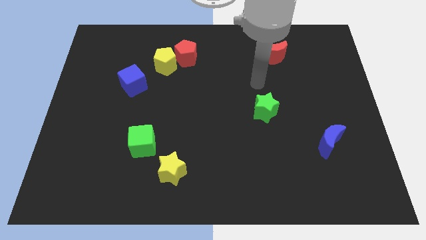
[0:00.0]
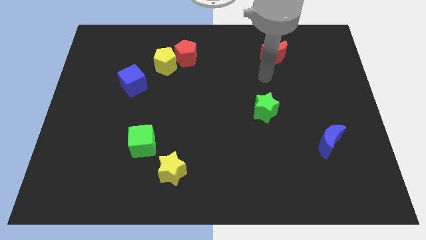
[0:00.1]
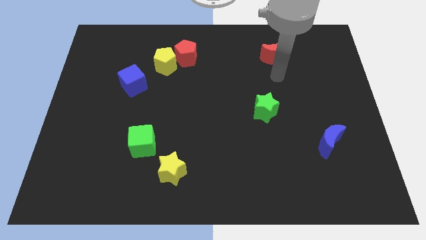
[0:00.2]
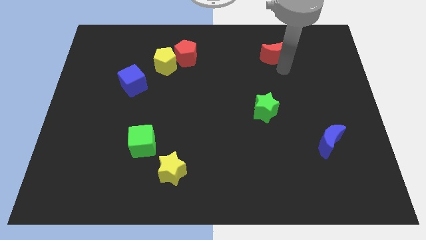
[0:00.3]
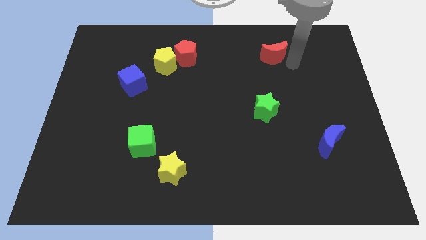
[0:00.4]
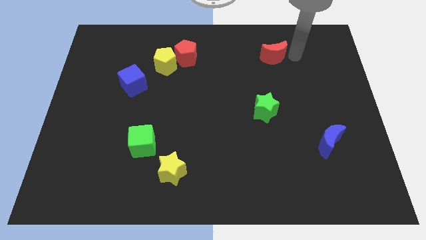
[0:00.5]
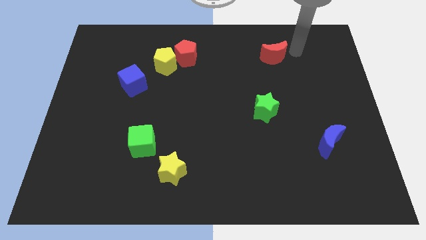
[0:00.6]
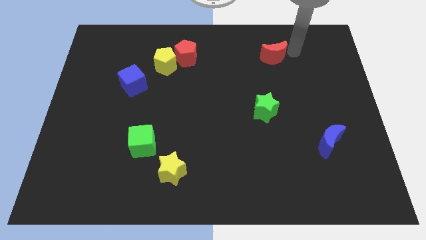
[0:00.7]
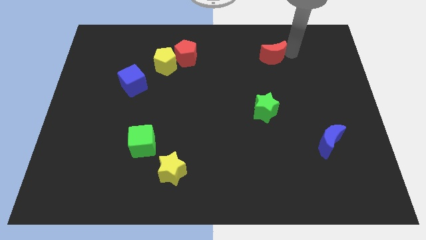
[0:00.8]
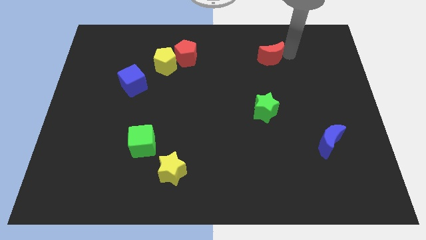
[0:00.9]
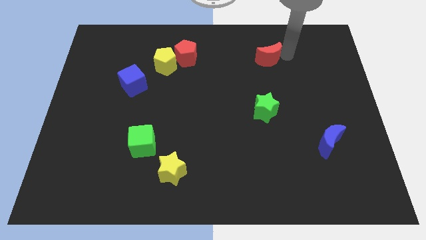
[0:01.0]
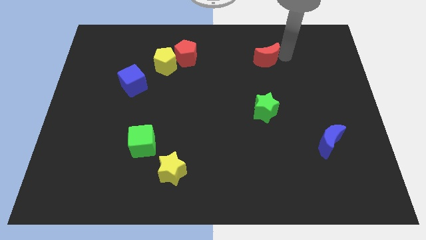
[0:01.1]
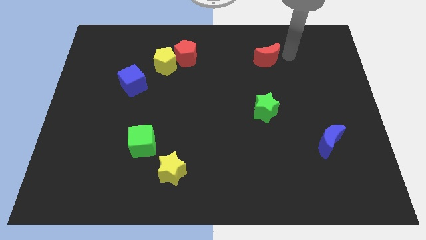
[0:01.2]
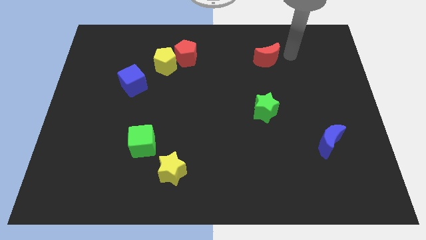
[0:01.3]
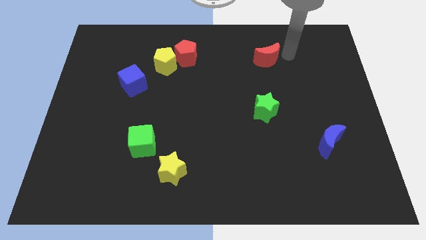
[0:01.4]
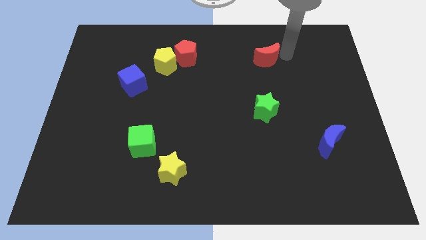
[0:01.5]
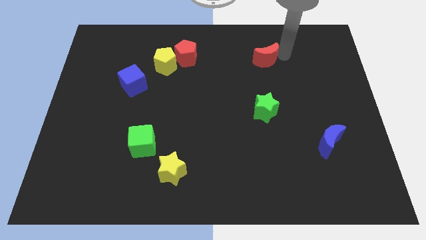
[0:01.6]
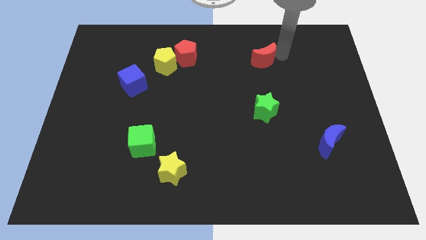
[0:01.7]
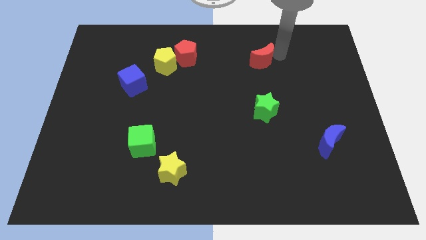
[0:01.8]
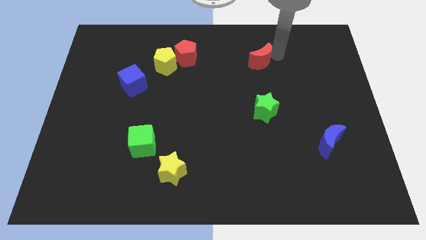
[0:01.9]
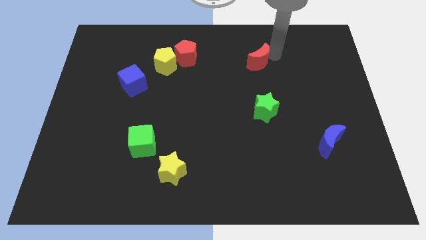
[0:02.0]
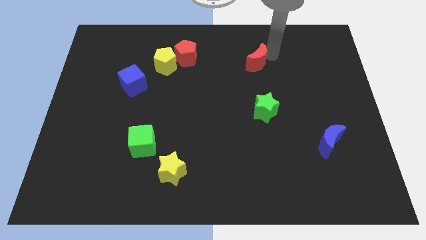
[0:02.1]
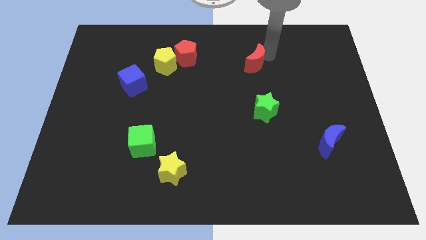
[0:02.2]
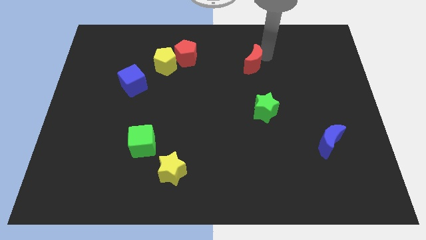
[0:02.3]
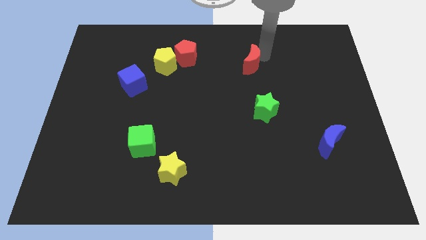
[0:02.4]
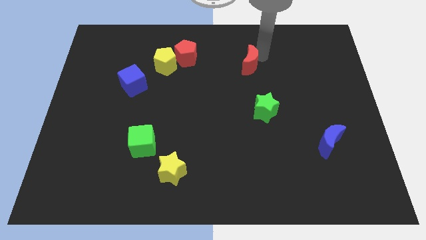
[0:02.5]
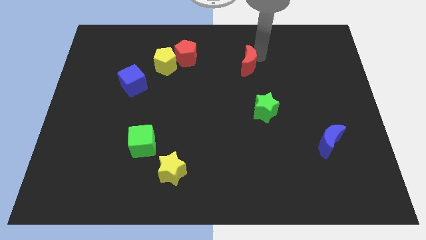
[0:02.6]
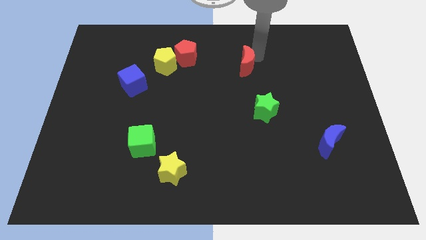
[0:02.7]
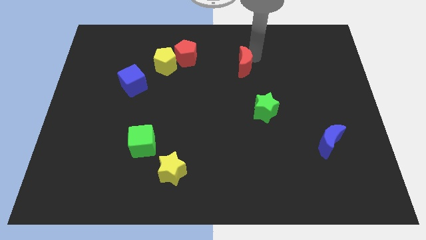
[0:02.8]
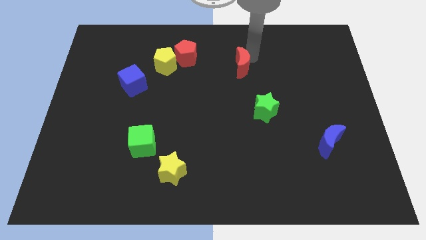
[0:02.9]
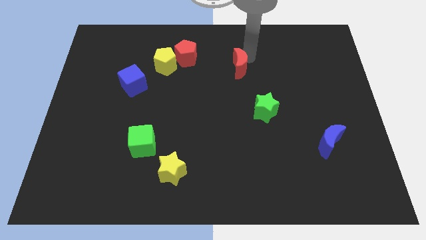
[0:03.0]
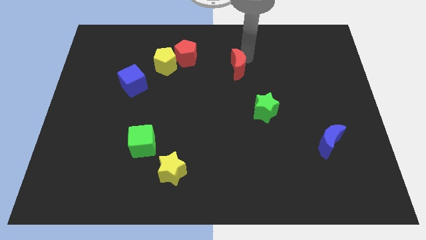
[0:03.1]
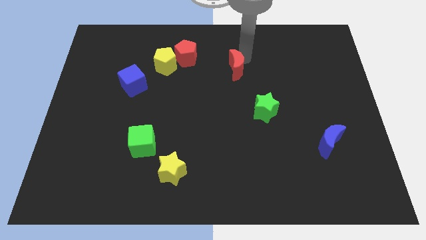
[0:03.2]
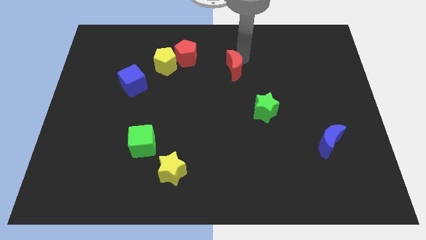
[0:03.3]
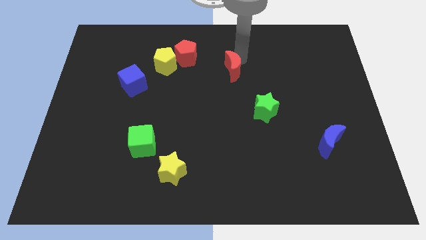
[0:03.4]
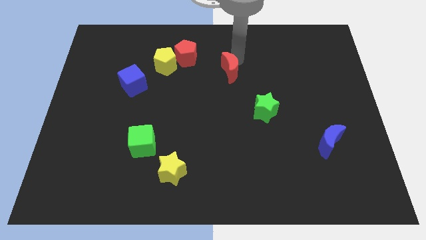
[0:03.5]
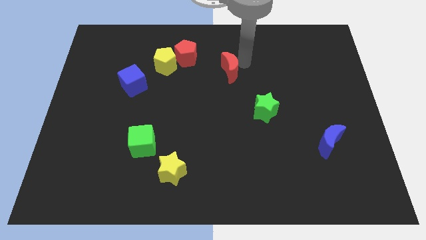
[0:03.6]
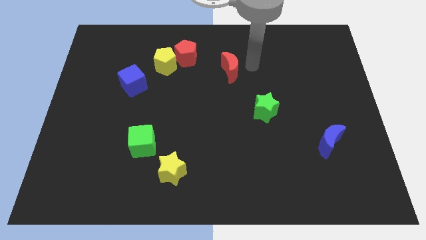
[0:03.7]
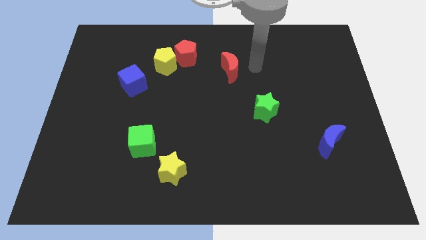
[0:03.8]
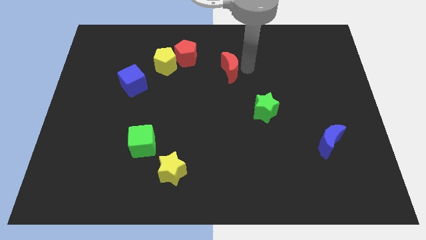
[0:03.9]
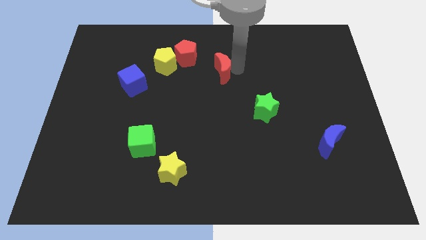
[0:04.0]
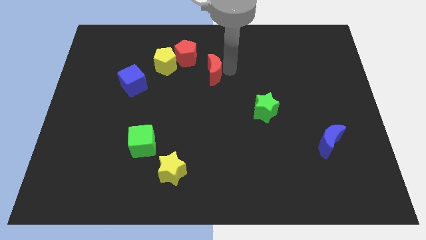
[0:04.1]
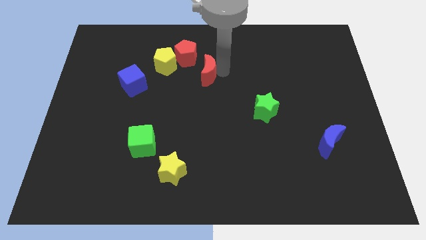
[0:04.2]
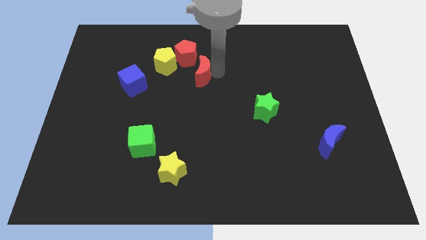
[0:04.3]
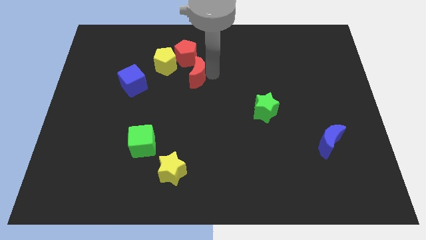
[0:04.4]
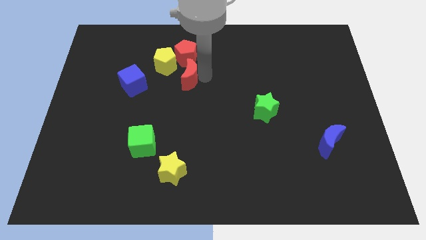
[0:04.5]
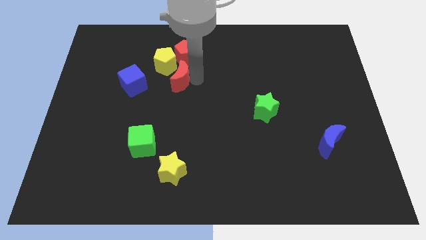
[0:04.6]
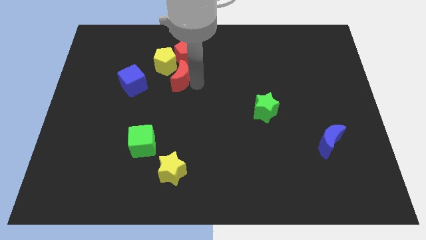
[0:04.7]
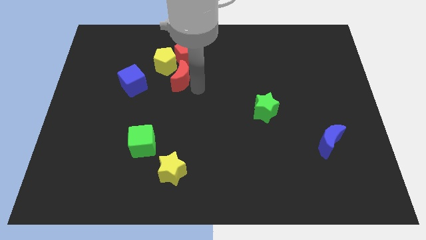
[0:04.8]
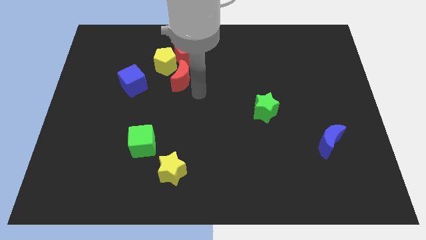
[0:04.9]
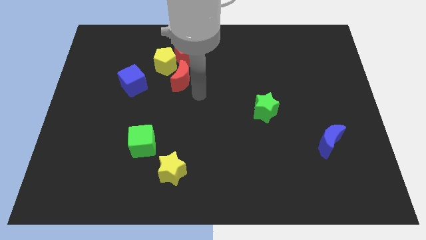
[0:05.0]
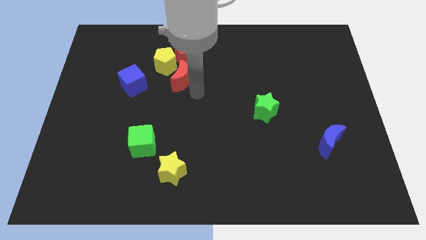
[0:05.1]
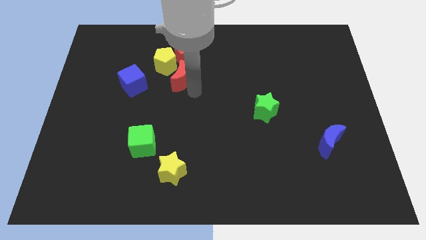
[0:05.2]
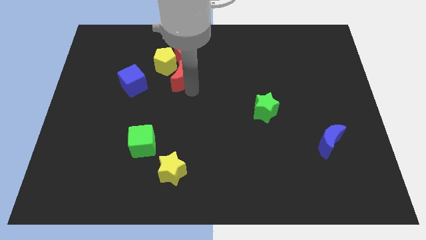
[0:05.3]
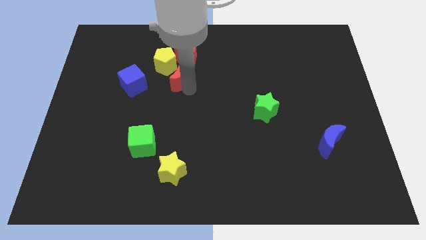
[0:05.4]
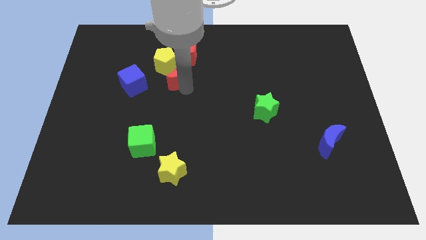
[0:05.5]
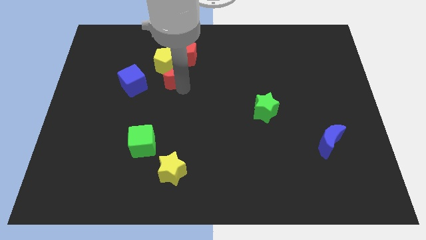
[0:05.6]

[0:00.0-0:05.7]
slide the red moon close to the yellow pentagon

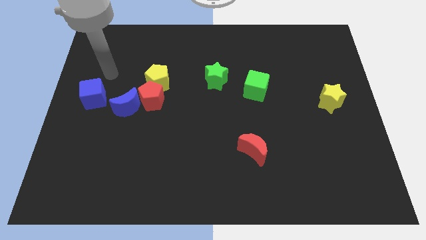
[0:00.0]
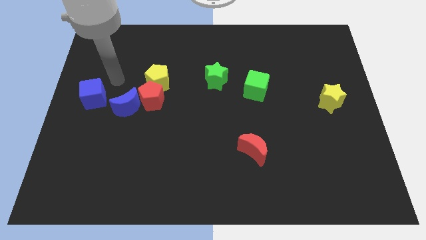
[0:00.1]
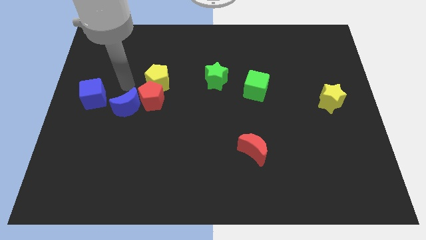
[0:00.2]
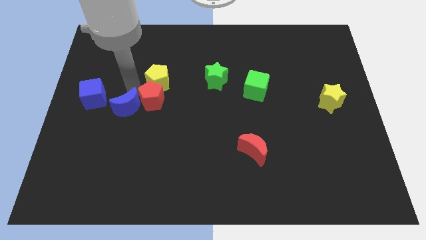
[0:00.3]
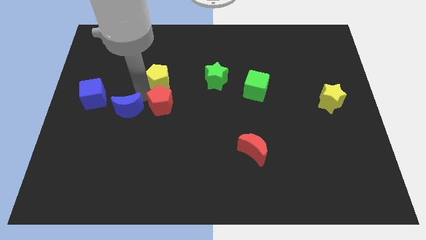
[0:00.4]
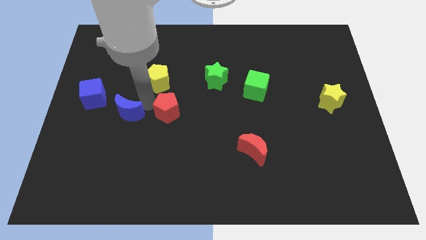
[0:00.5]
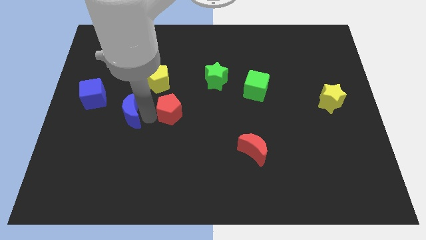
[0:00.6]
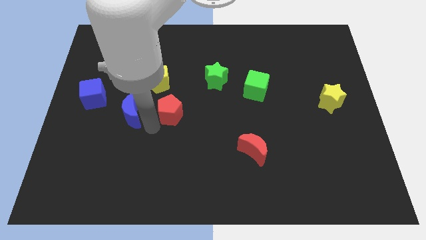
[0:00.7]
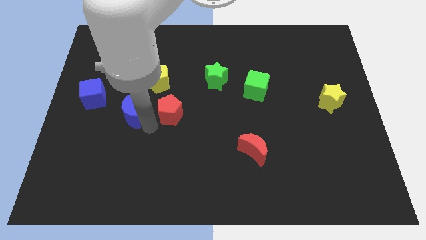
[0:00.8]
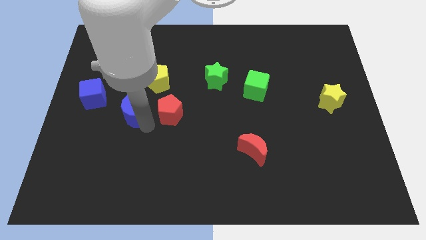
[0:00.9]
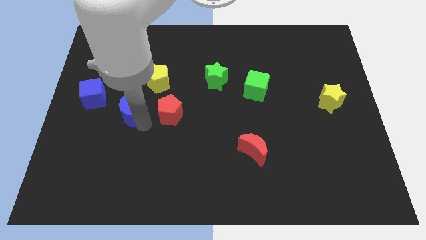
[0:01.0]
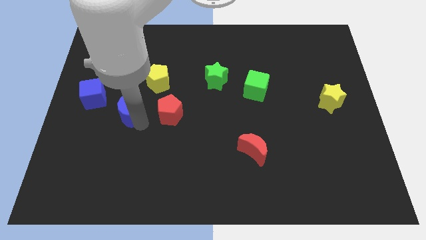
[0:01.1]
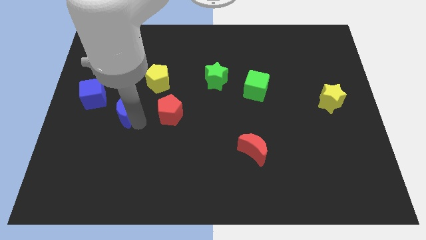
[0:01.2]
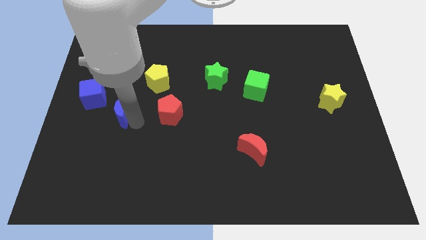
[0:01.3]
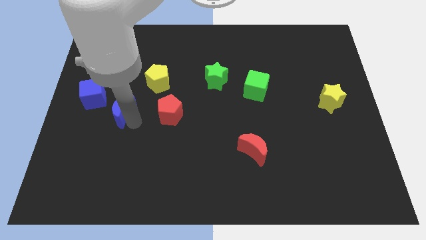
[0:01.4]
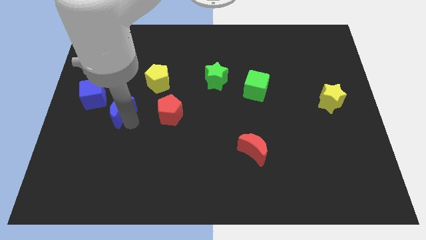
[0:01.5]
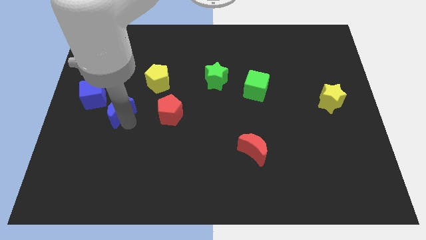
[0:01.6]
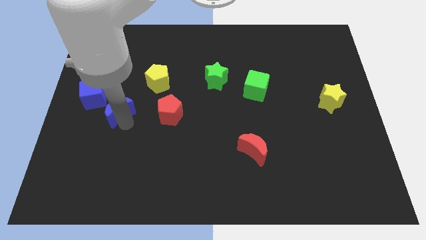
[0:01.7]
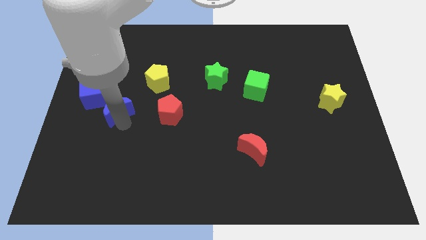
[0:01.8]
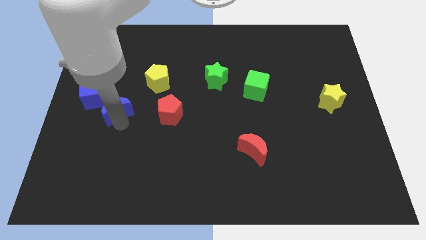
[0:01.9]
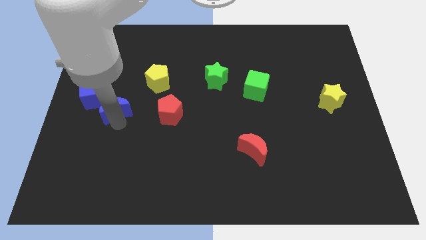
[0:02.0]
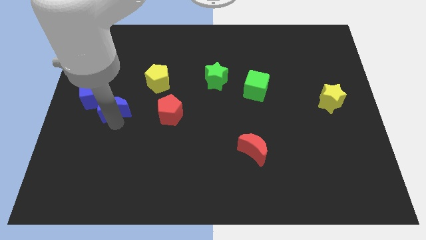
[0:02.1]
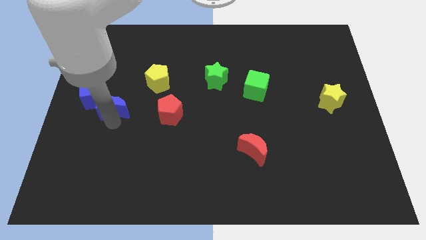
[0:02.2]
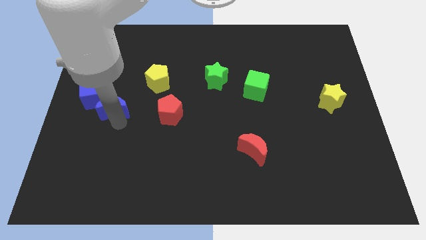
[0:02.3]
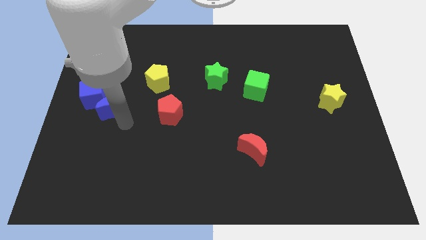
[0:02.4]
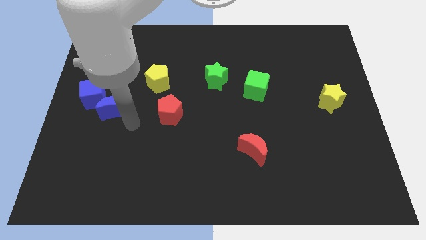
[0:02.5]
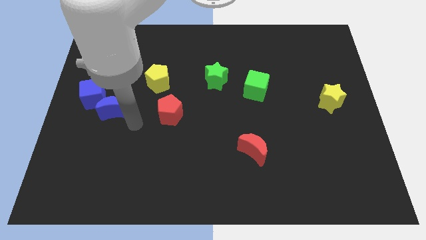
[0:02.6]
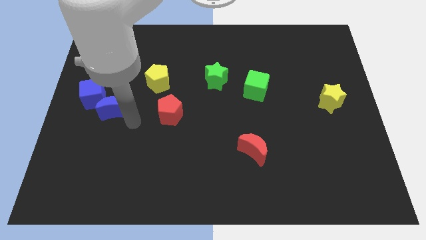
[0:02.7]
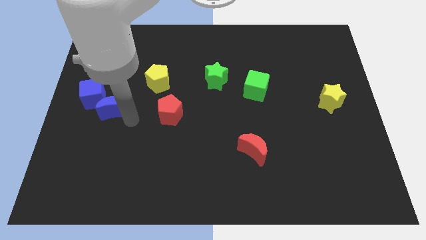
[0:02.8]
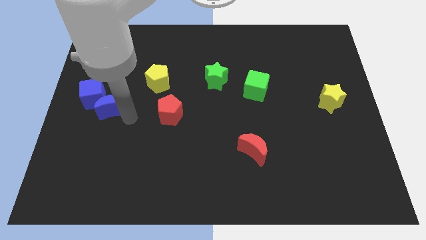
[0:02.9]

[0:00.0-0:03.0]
push the blue moon next to the blue cube
